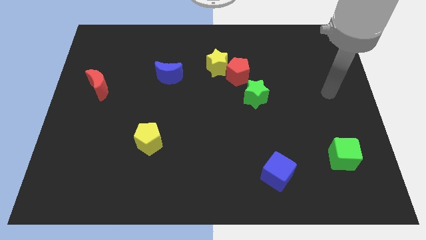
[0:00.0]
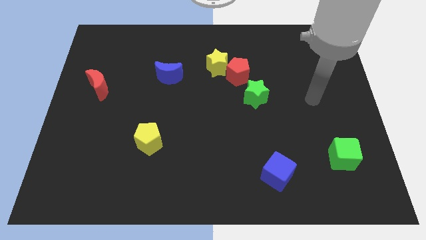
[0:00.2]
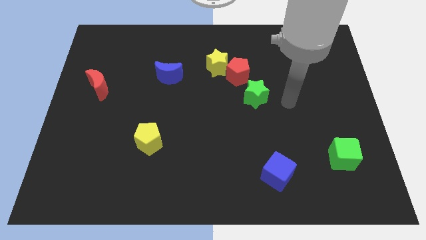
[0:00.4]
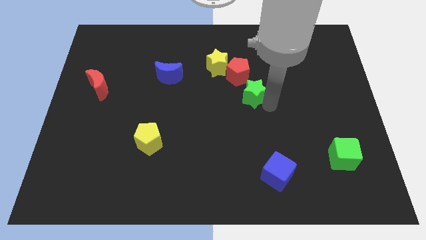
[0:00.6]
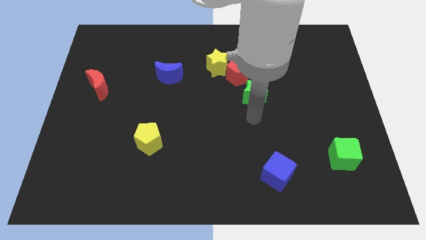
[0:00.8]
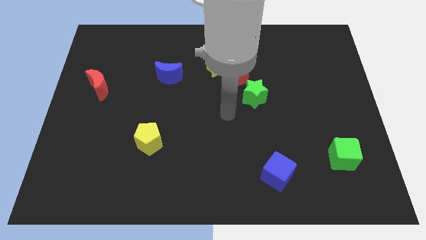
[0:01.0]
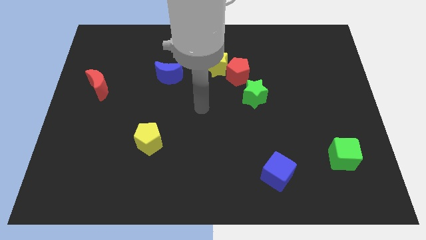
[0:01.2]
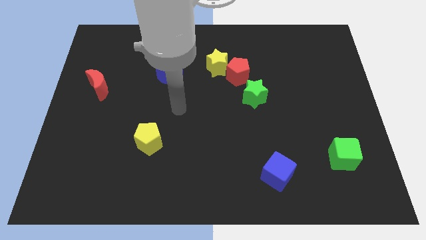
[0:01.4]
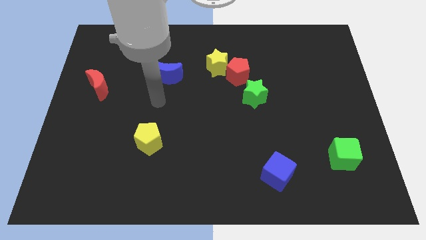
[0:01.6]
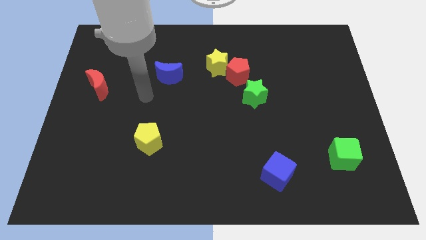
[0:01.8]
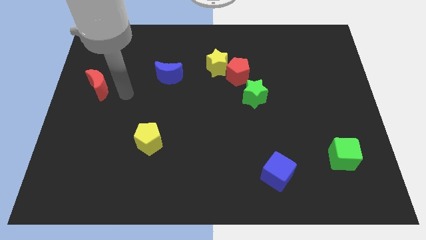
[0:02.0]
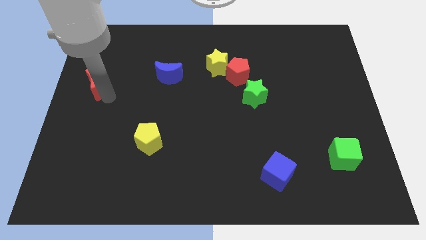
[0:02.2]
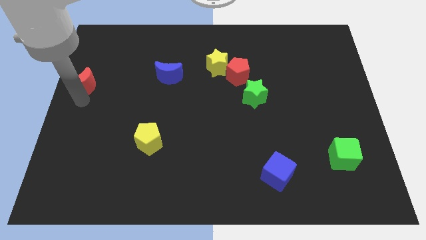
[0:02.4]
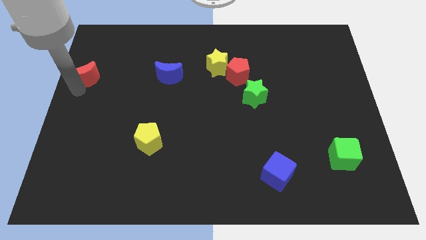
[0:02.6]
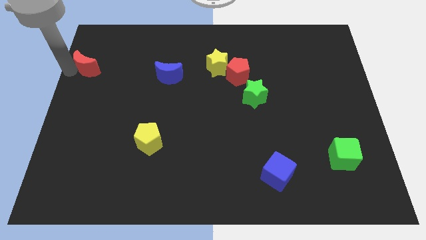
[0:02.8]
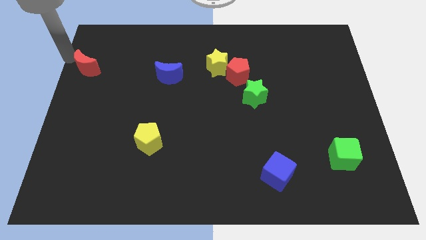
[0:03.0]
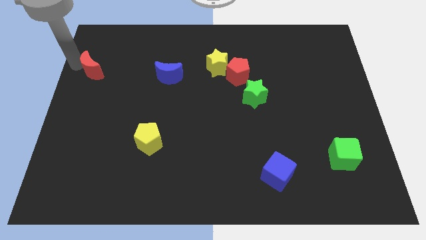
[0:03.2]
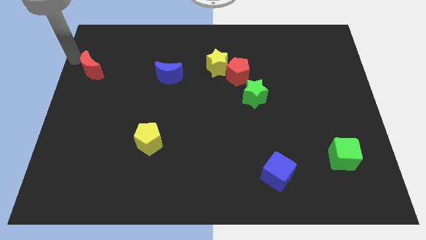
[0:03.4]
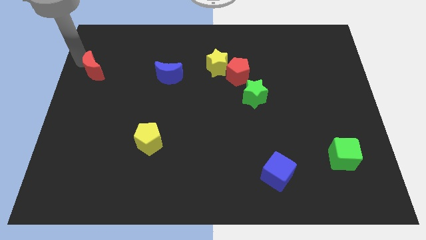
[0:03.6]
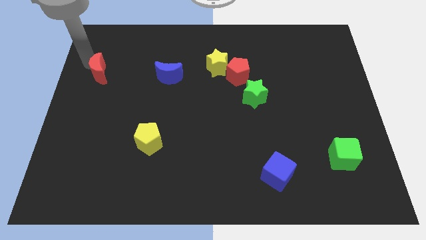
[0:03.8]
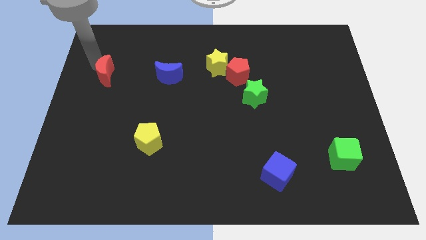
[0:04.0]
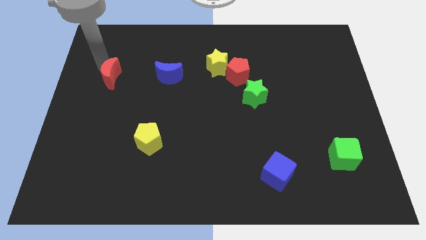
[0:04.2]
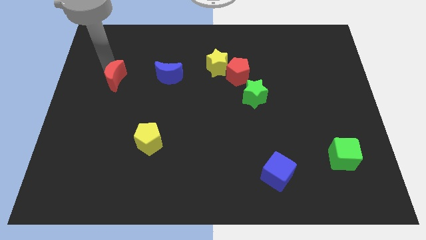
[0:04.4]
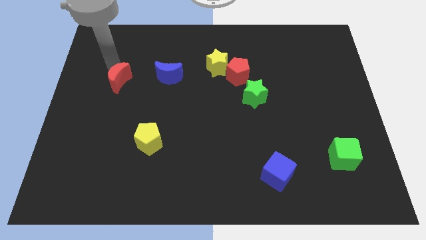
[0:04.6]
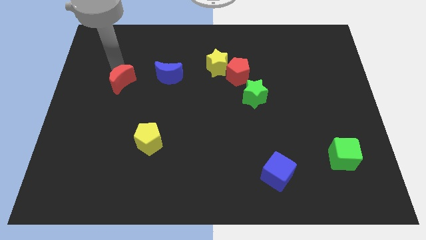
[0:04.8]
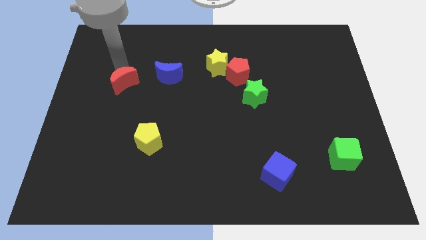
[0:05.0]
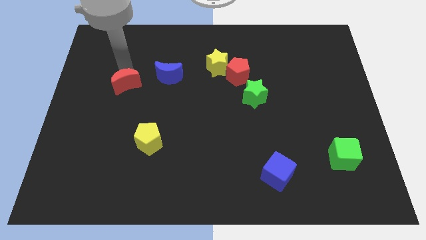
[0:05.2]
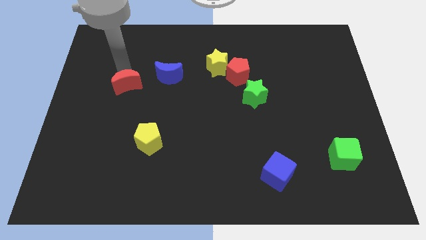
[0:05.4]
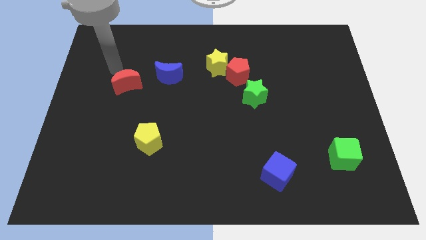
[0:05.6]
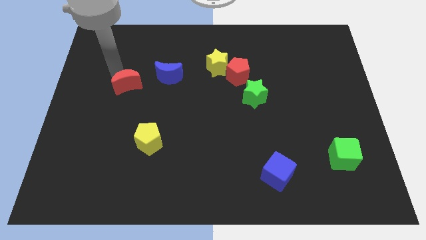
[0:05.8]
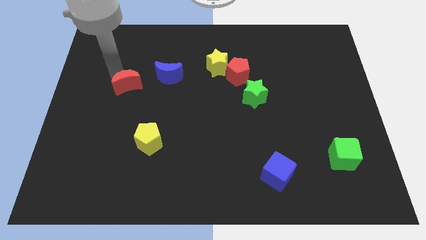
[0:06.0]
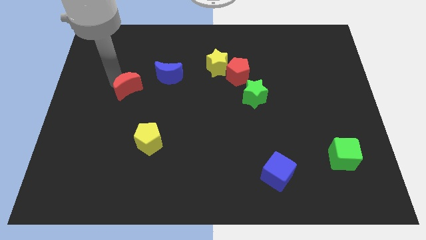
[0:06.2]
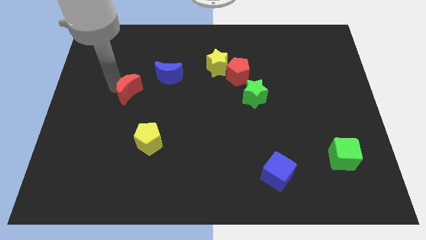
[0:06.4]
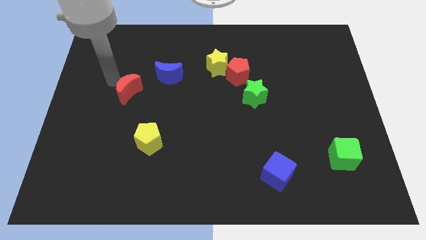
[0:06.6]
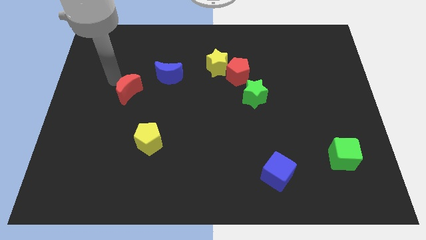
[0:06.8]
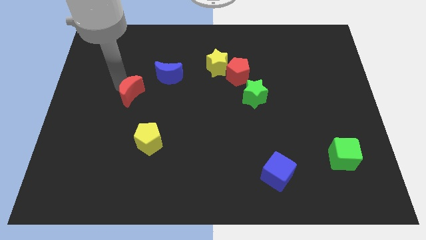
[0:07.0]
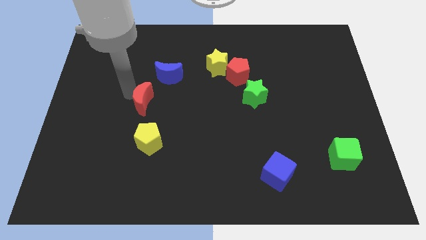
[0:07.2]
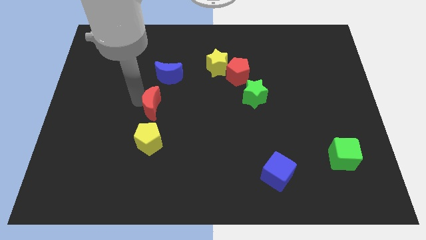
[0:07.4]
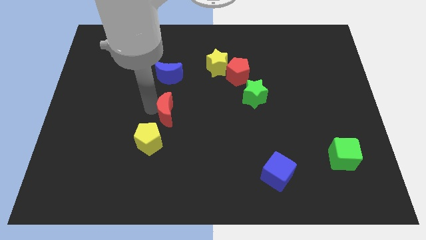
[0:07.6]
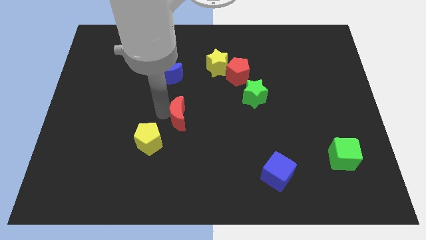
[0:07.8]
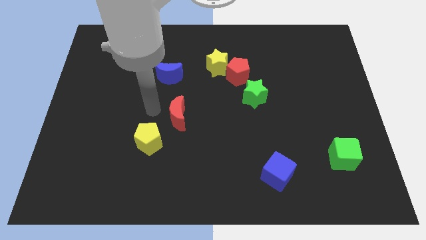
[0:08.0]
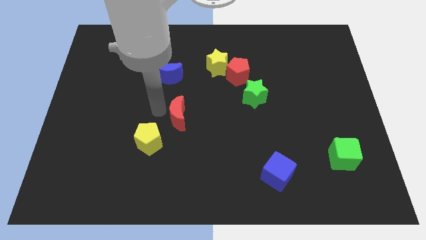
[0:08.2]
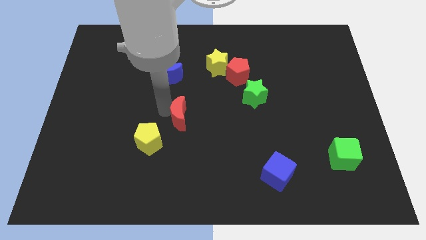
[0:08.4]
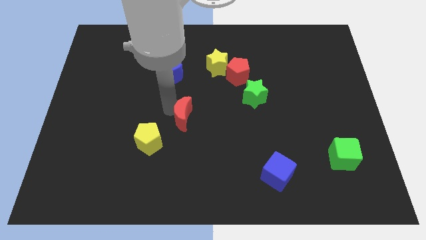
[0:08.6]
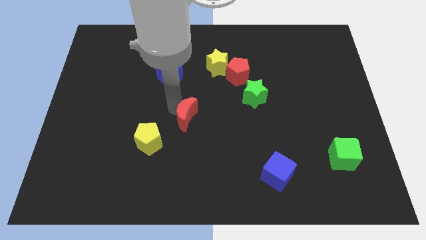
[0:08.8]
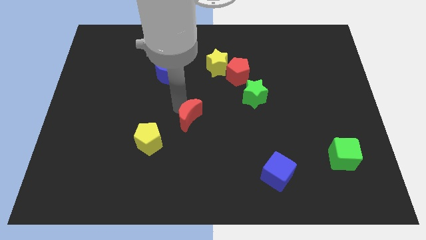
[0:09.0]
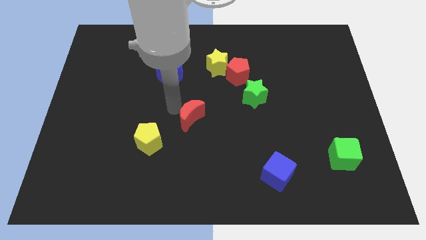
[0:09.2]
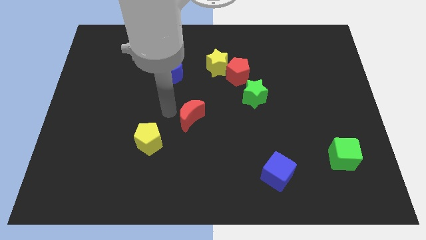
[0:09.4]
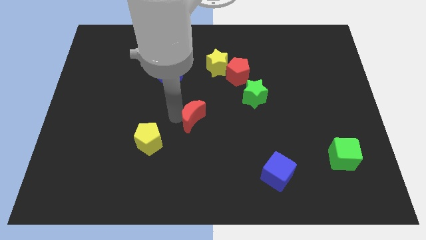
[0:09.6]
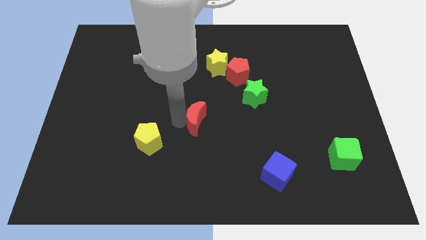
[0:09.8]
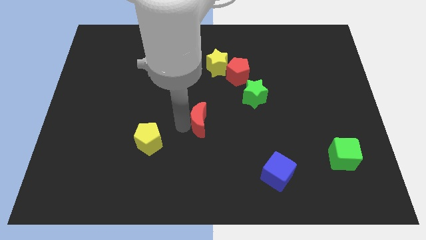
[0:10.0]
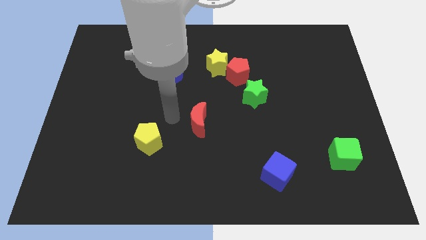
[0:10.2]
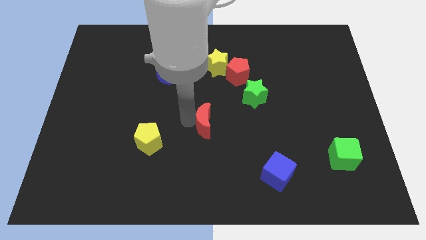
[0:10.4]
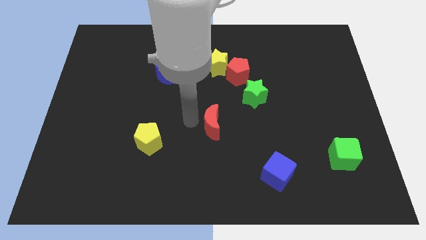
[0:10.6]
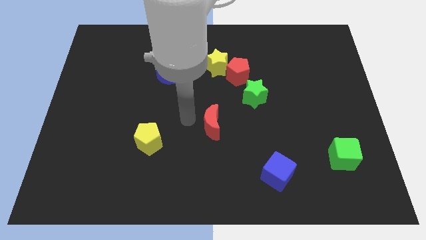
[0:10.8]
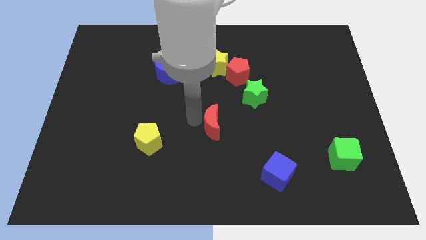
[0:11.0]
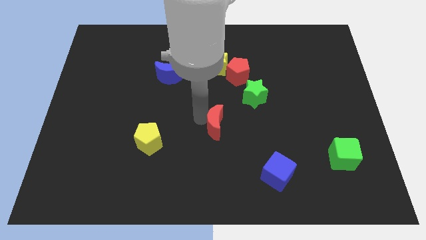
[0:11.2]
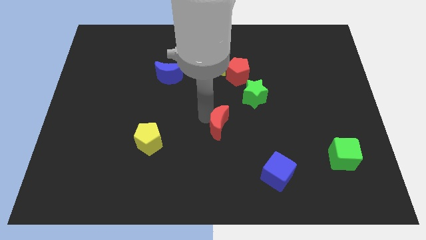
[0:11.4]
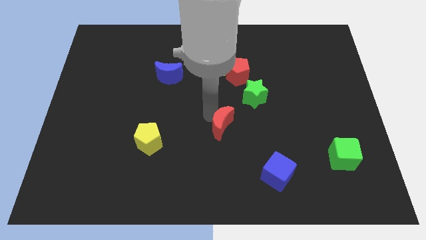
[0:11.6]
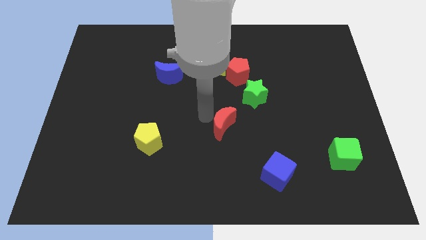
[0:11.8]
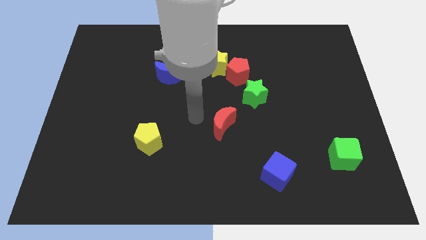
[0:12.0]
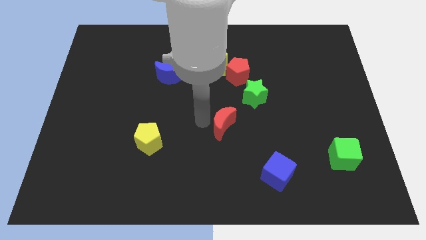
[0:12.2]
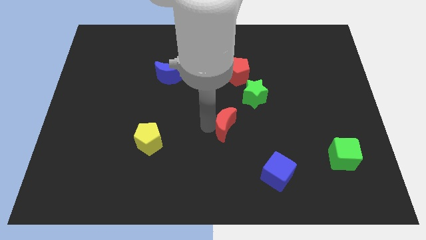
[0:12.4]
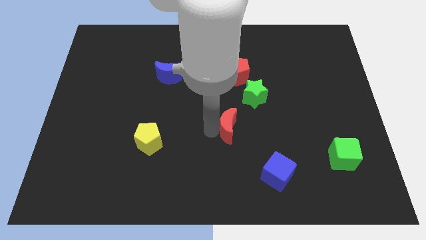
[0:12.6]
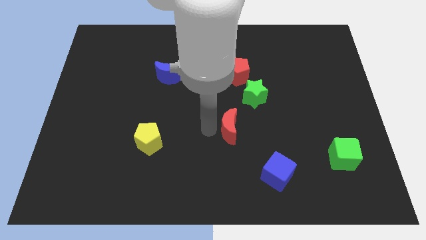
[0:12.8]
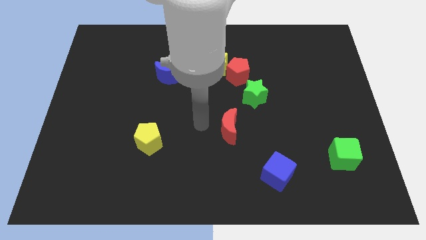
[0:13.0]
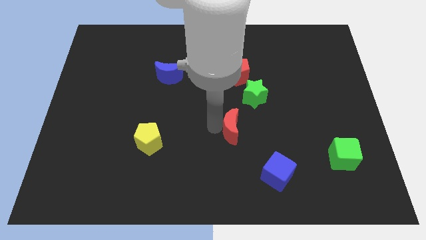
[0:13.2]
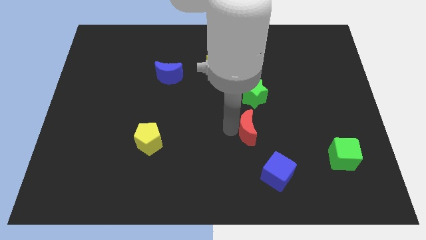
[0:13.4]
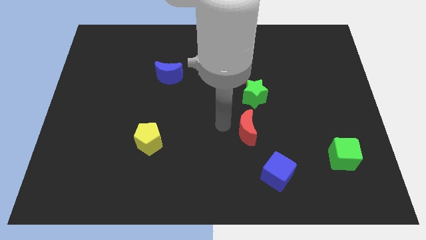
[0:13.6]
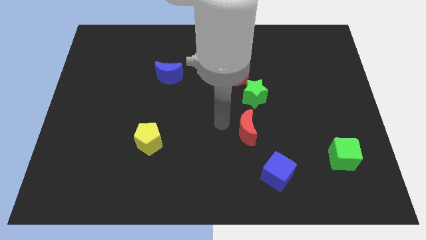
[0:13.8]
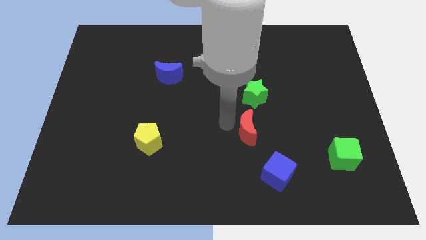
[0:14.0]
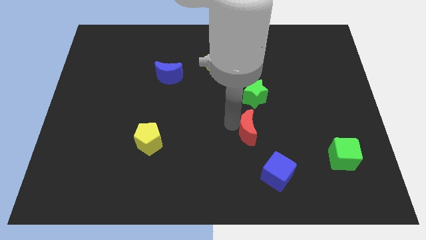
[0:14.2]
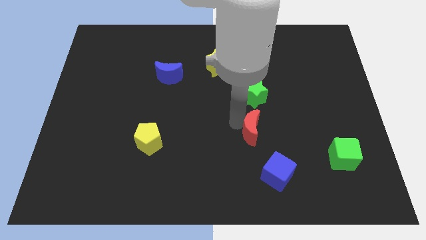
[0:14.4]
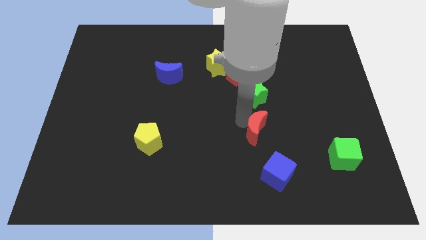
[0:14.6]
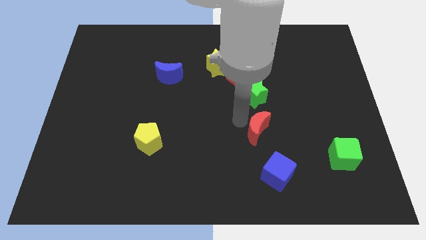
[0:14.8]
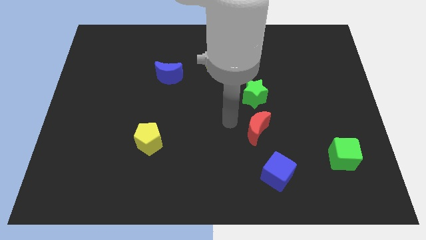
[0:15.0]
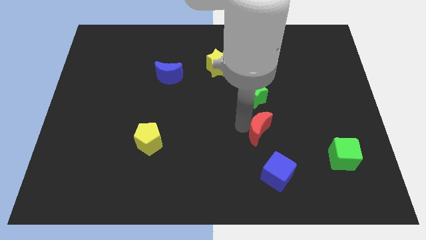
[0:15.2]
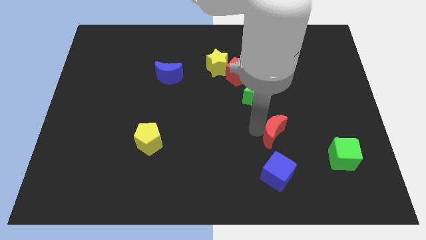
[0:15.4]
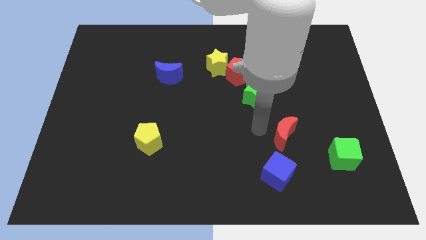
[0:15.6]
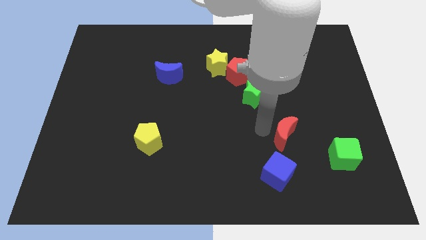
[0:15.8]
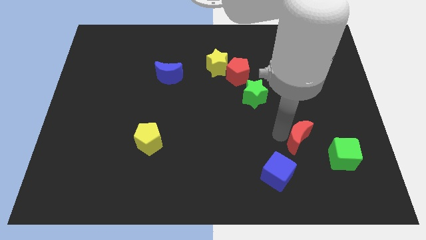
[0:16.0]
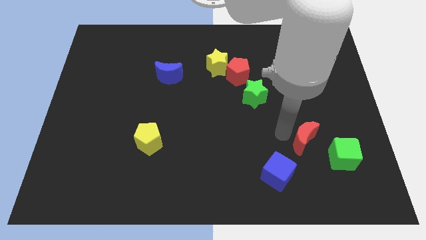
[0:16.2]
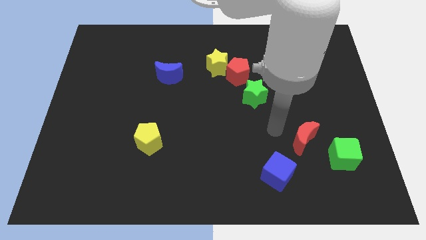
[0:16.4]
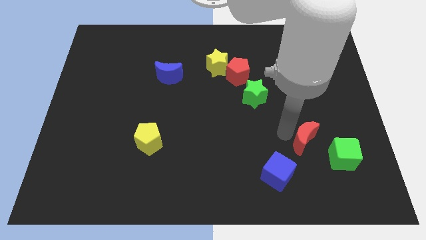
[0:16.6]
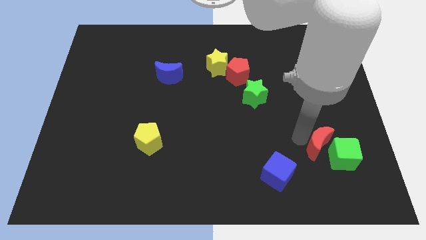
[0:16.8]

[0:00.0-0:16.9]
put the red moon to the green cube
